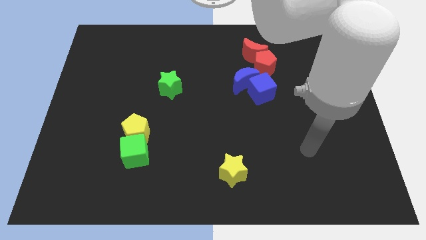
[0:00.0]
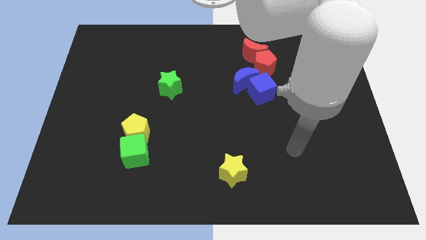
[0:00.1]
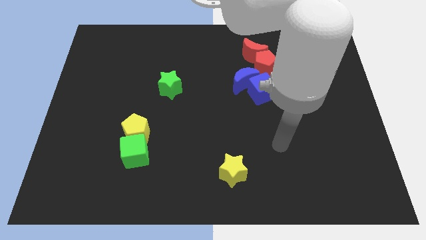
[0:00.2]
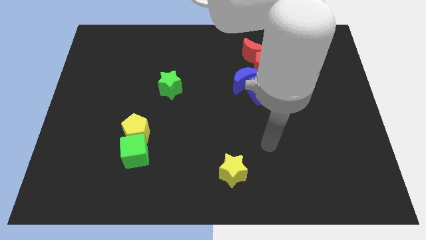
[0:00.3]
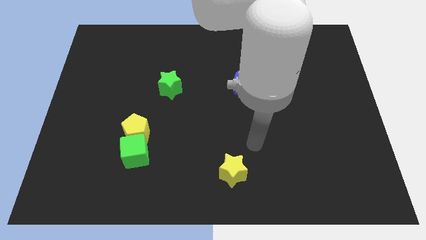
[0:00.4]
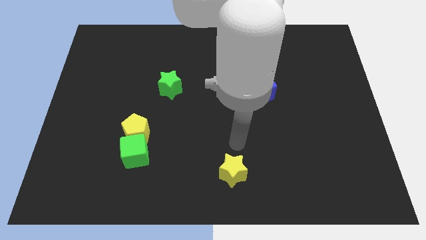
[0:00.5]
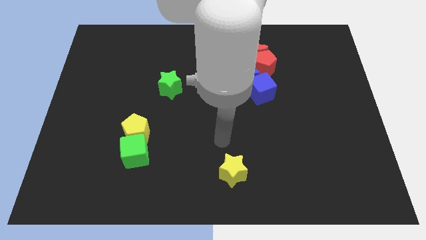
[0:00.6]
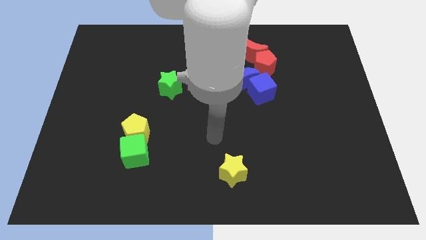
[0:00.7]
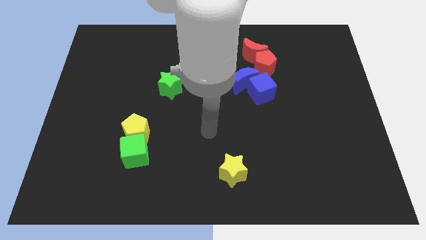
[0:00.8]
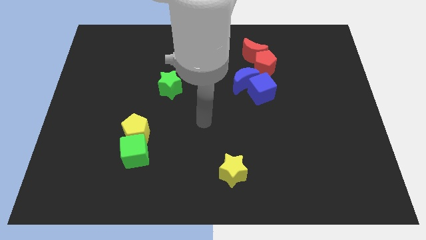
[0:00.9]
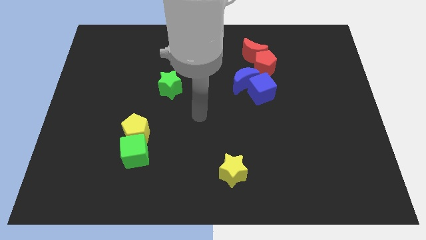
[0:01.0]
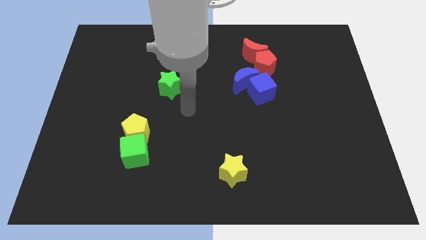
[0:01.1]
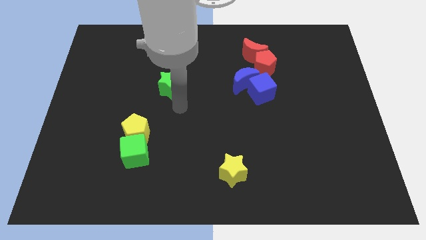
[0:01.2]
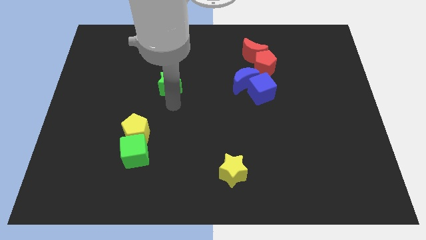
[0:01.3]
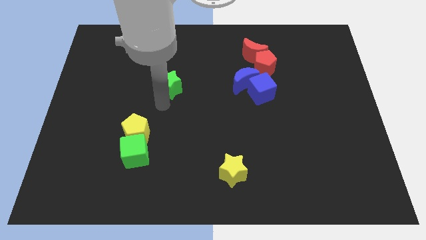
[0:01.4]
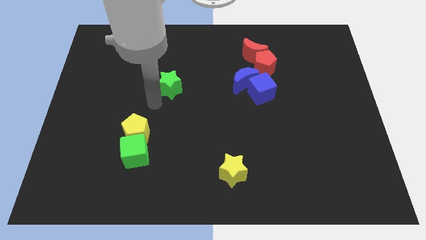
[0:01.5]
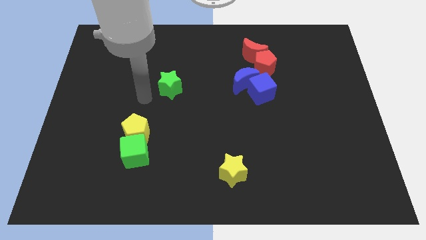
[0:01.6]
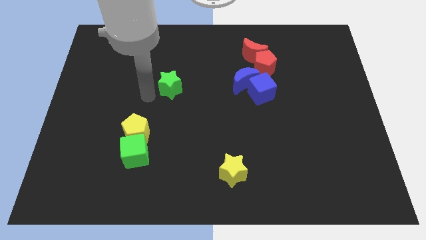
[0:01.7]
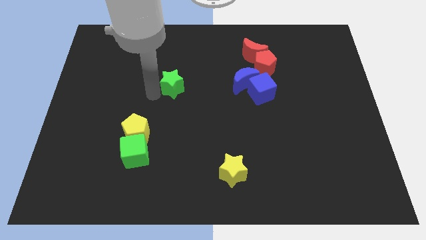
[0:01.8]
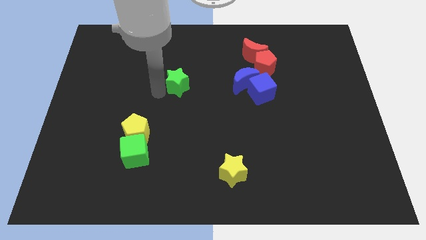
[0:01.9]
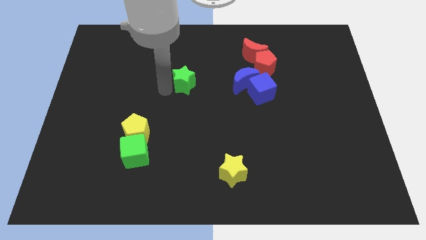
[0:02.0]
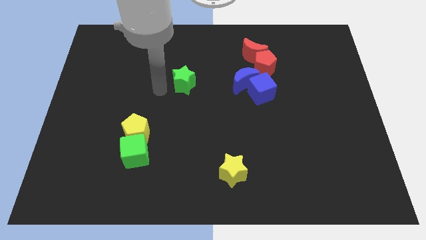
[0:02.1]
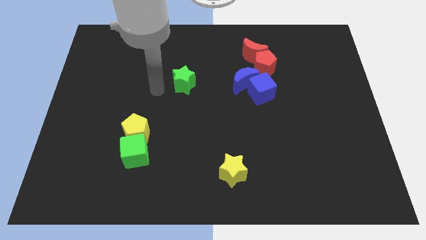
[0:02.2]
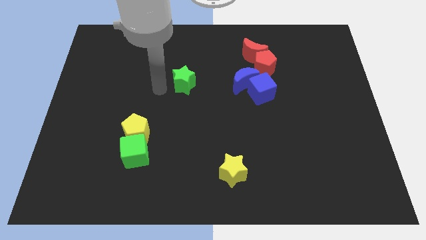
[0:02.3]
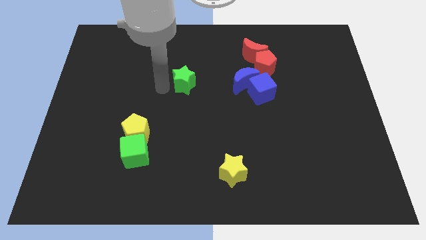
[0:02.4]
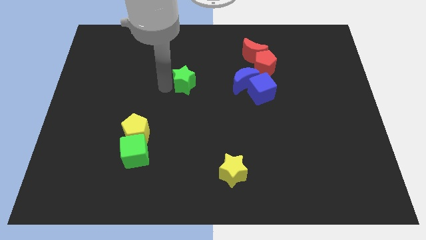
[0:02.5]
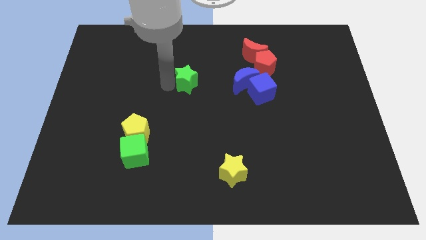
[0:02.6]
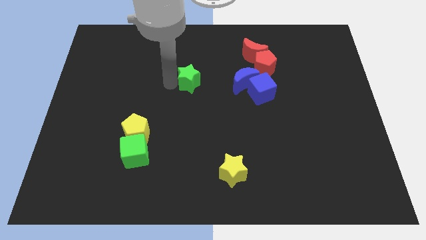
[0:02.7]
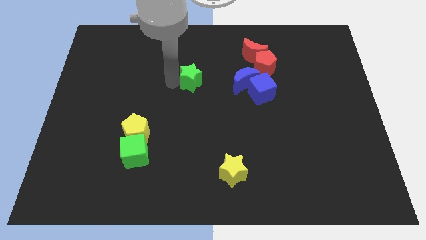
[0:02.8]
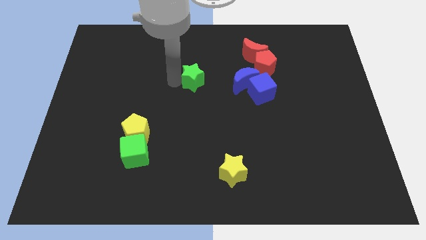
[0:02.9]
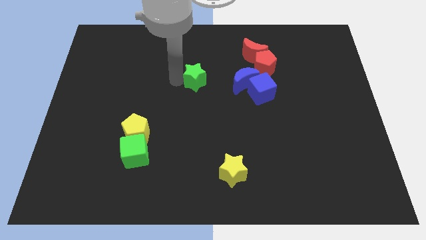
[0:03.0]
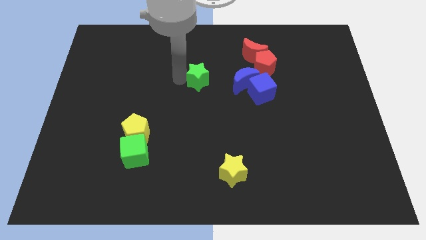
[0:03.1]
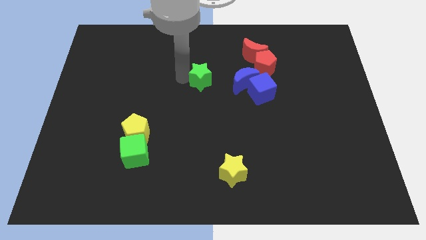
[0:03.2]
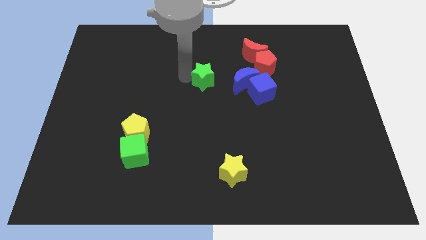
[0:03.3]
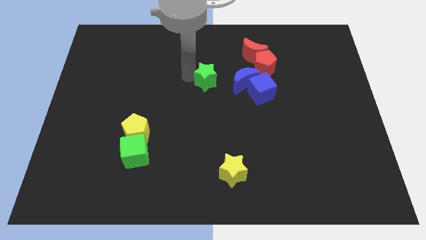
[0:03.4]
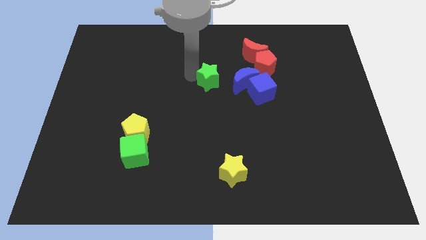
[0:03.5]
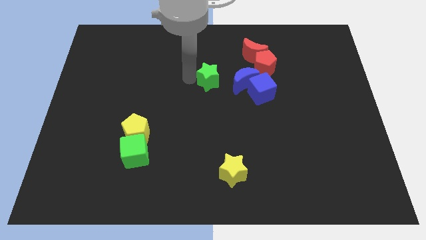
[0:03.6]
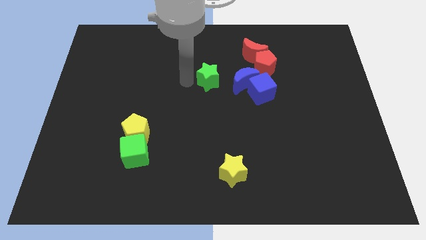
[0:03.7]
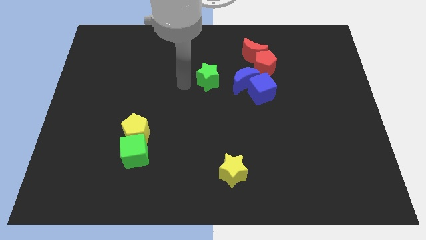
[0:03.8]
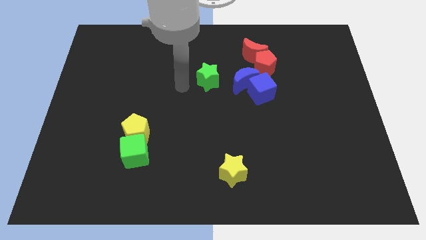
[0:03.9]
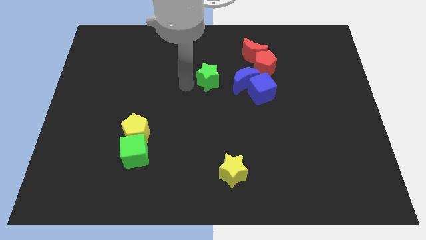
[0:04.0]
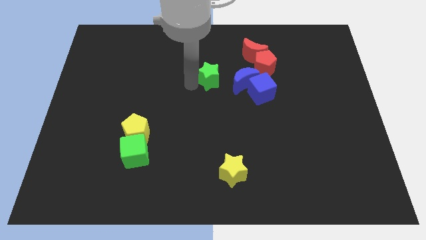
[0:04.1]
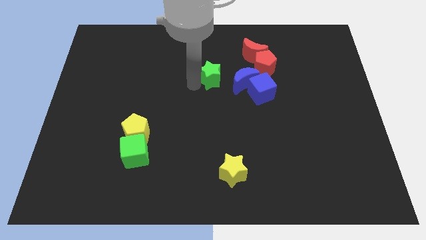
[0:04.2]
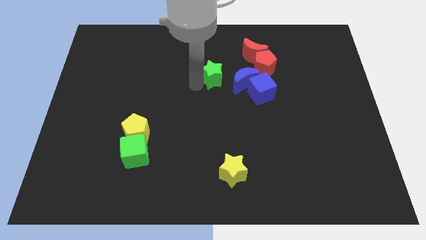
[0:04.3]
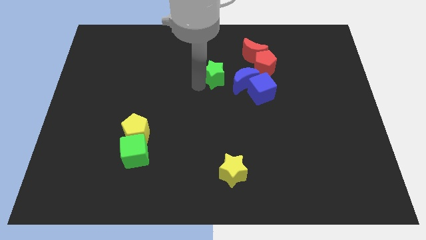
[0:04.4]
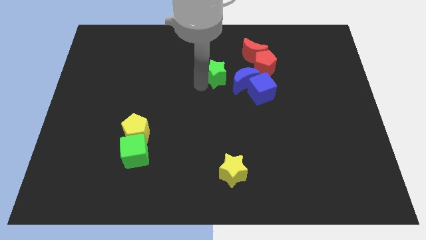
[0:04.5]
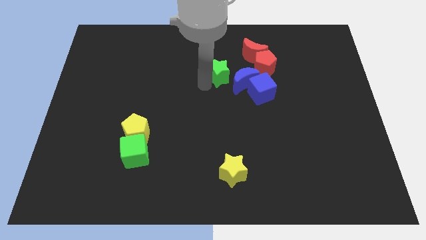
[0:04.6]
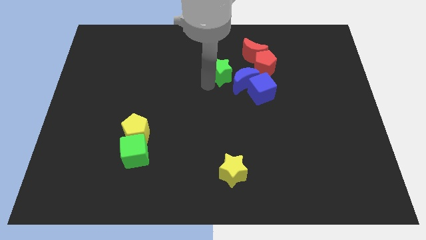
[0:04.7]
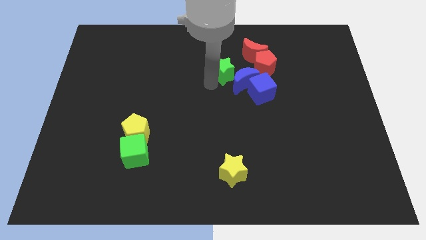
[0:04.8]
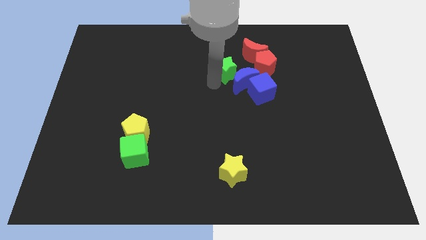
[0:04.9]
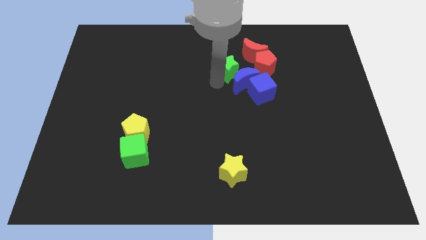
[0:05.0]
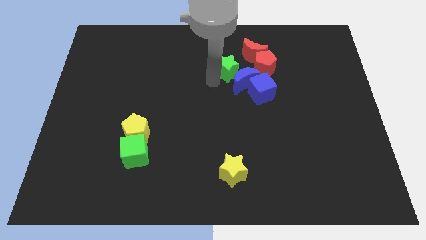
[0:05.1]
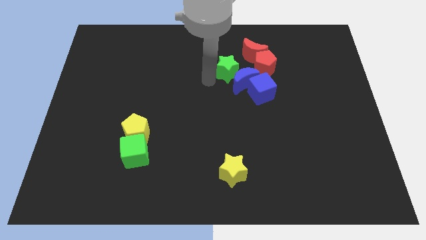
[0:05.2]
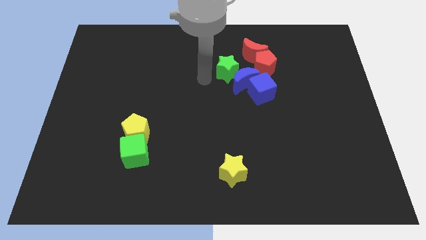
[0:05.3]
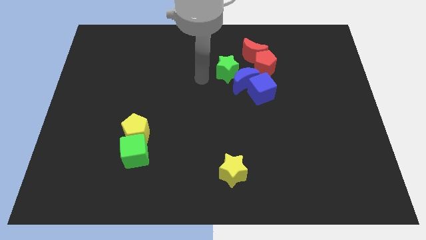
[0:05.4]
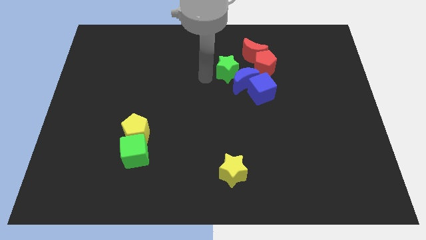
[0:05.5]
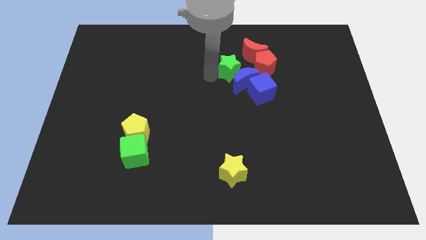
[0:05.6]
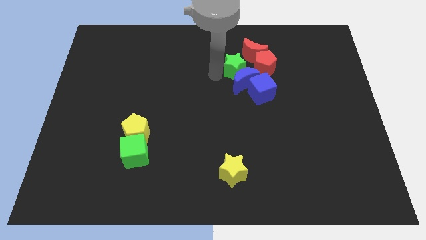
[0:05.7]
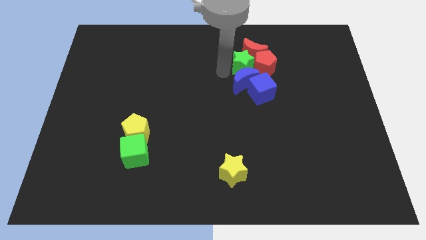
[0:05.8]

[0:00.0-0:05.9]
push the green star next to the red pentagon

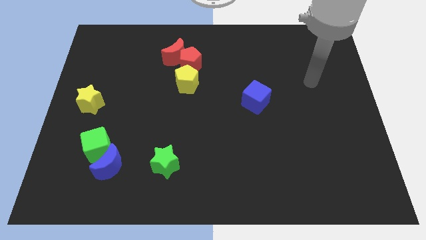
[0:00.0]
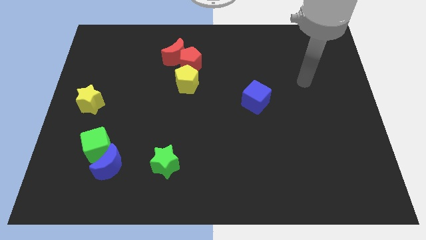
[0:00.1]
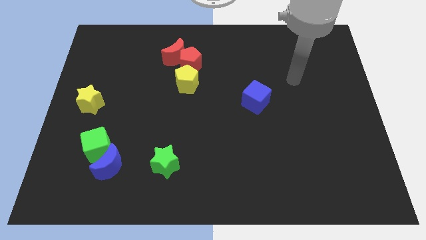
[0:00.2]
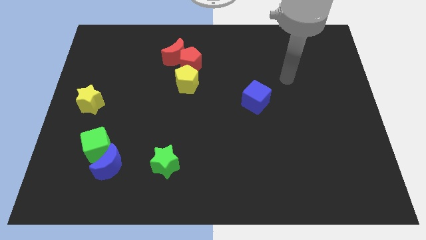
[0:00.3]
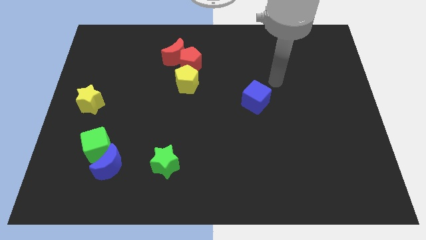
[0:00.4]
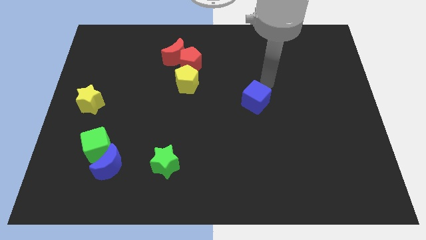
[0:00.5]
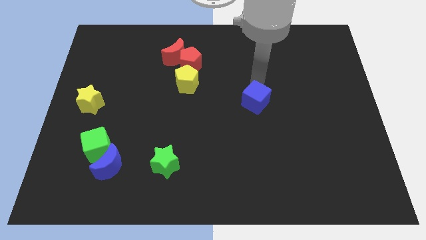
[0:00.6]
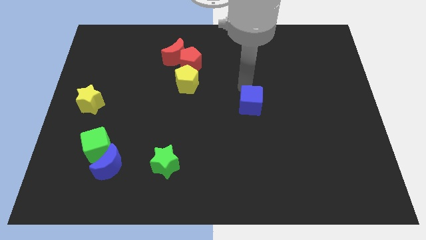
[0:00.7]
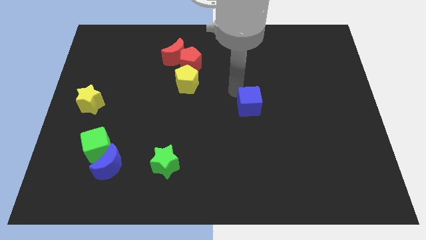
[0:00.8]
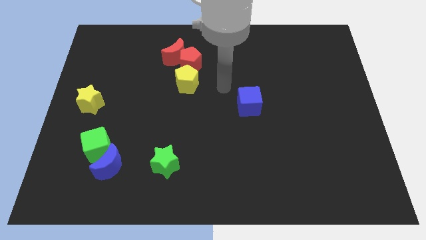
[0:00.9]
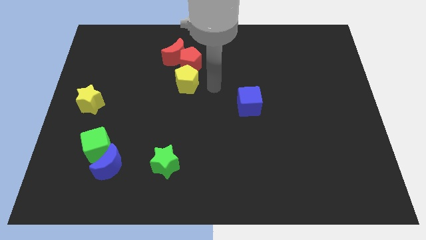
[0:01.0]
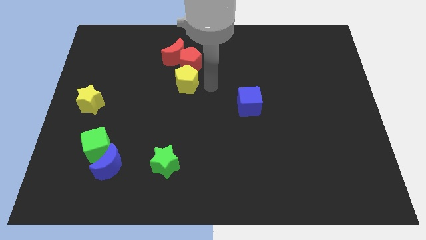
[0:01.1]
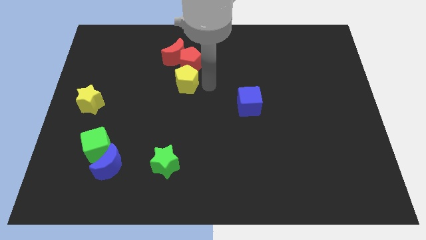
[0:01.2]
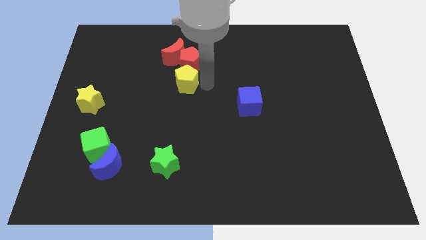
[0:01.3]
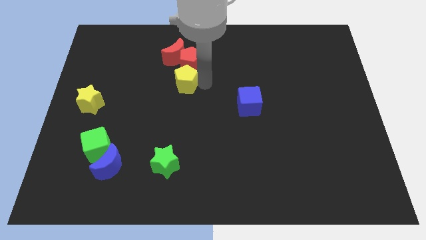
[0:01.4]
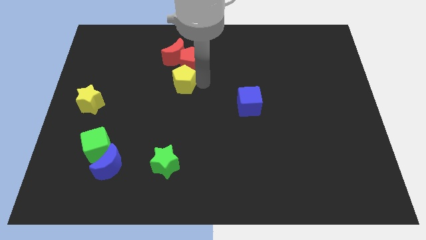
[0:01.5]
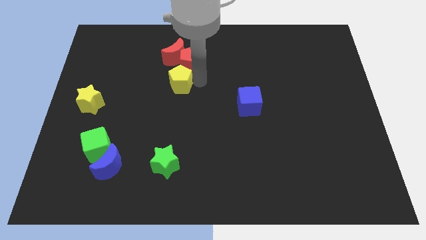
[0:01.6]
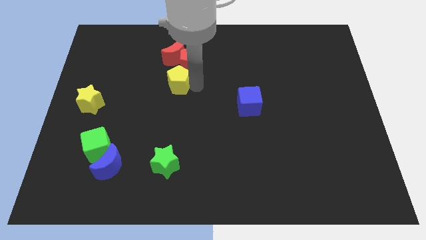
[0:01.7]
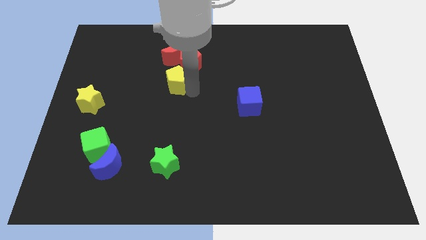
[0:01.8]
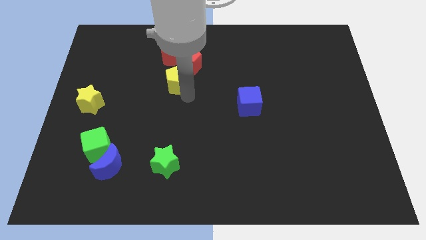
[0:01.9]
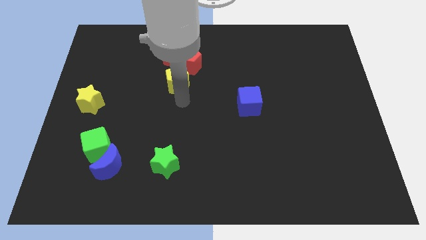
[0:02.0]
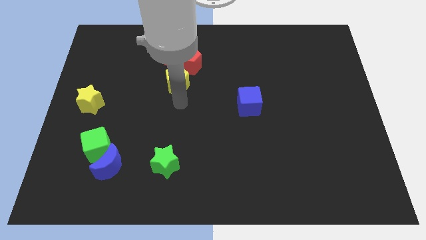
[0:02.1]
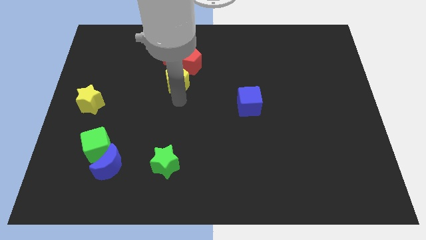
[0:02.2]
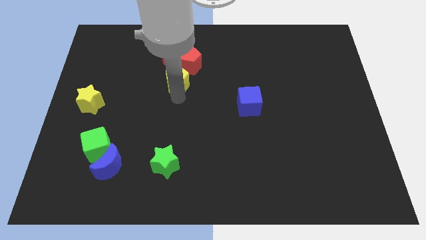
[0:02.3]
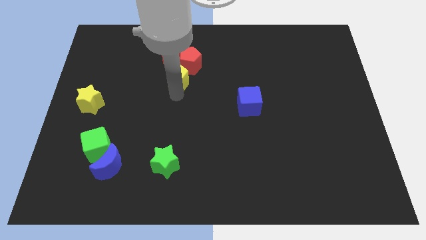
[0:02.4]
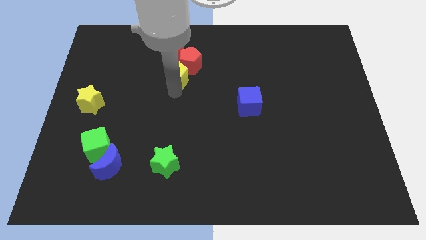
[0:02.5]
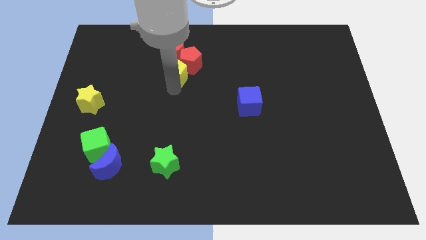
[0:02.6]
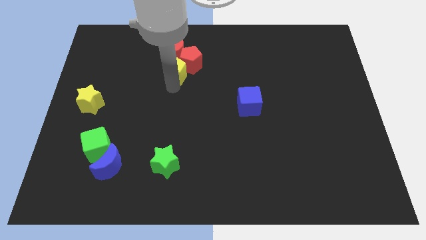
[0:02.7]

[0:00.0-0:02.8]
push the yellow pentagon close to the red moon
